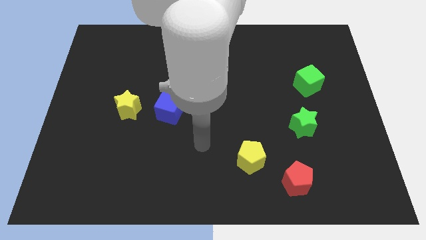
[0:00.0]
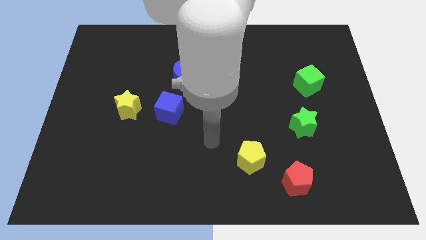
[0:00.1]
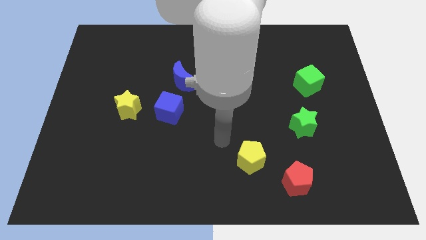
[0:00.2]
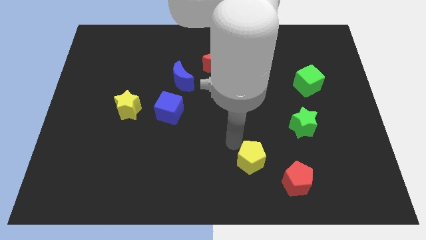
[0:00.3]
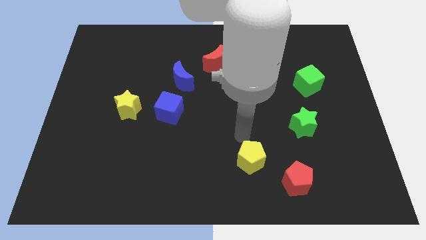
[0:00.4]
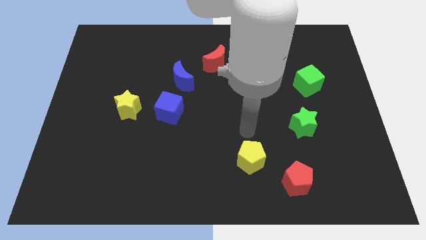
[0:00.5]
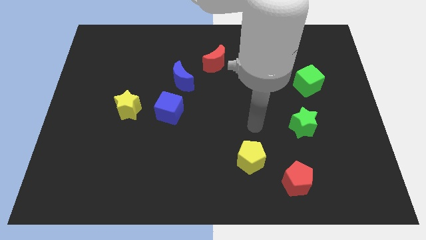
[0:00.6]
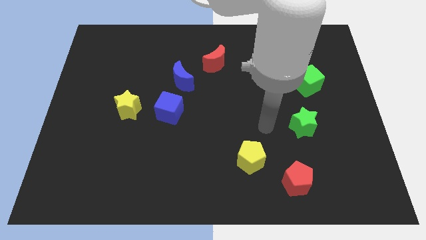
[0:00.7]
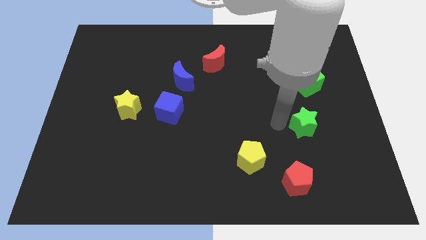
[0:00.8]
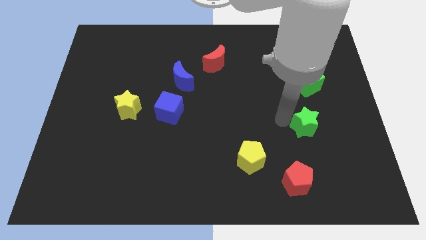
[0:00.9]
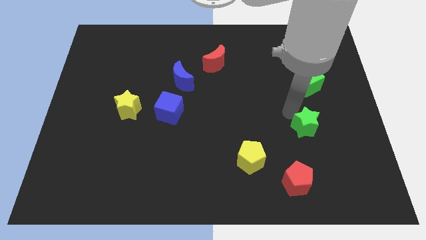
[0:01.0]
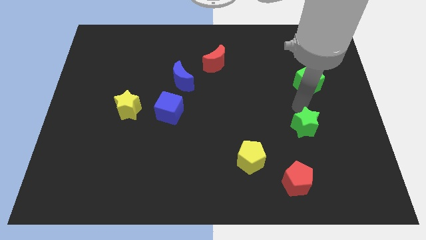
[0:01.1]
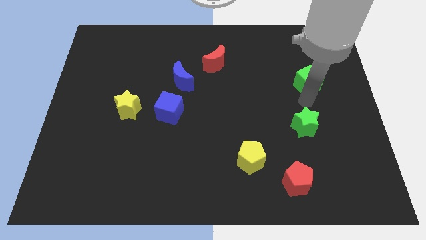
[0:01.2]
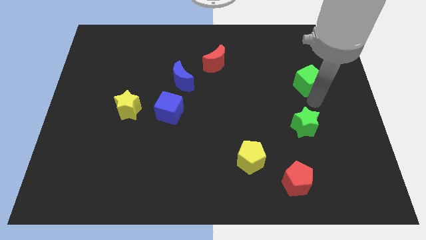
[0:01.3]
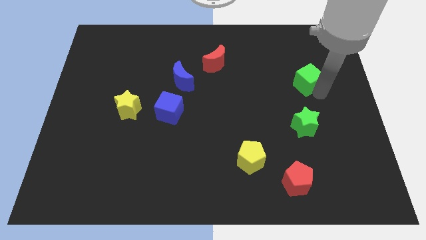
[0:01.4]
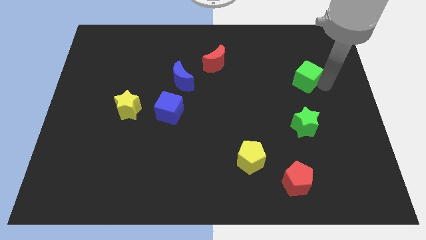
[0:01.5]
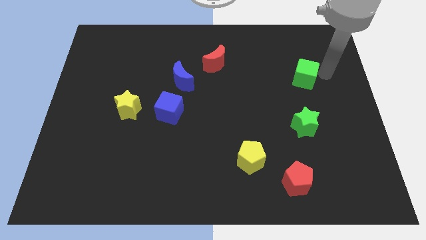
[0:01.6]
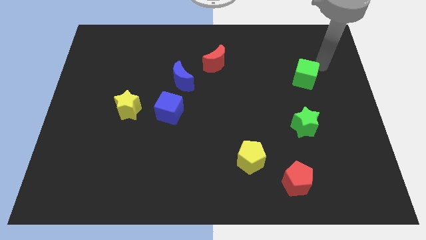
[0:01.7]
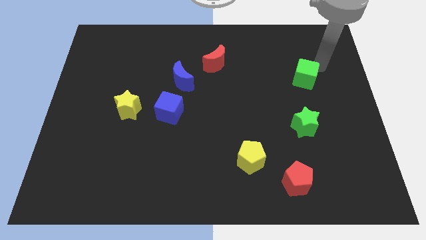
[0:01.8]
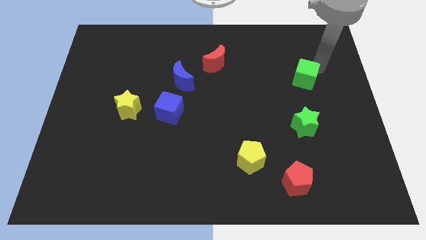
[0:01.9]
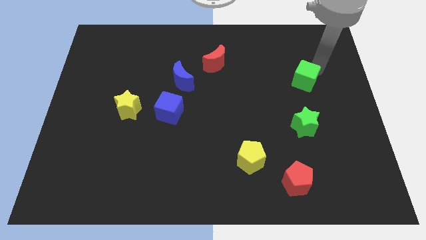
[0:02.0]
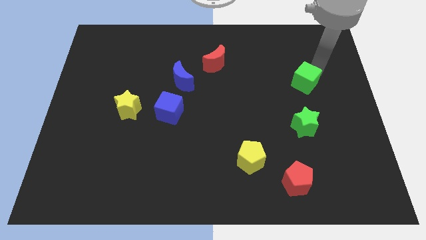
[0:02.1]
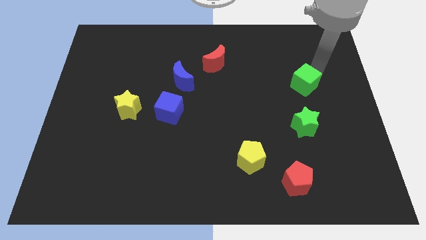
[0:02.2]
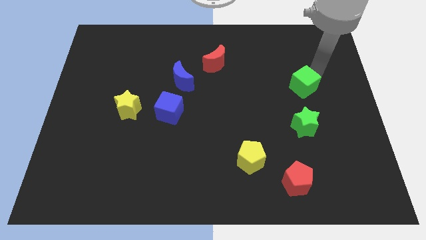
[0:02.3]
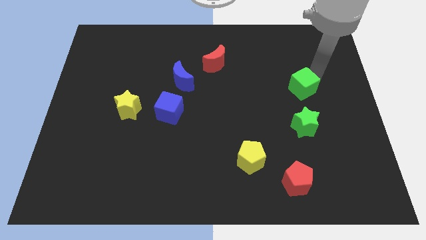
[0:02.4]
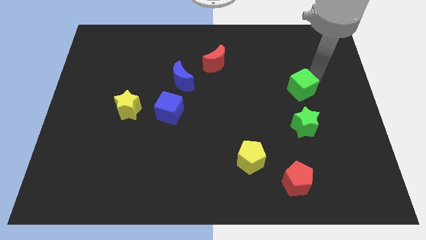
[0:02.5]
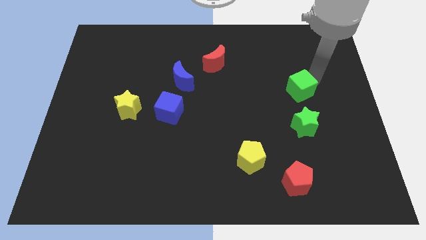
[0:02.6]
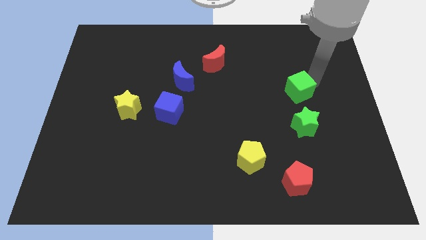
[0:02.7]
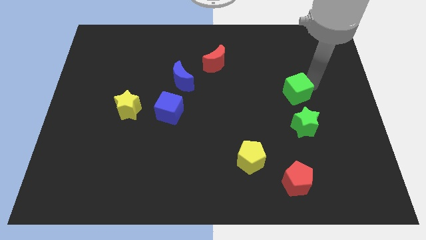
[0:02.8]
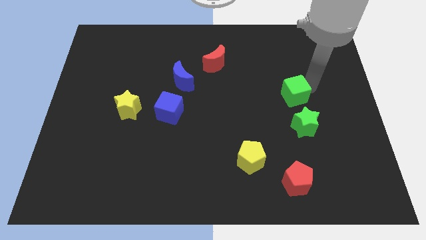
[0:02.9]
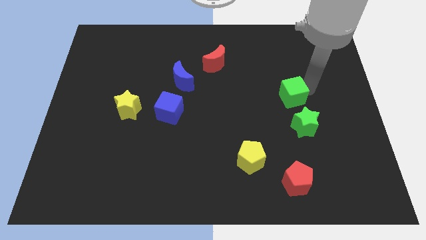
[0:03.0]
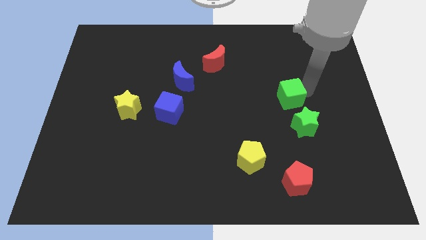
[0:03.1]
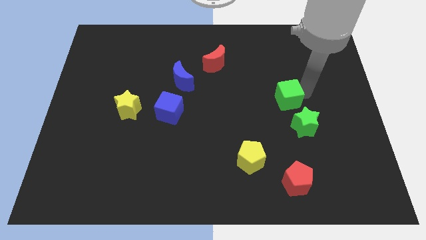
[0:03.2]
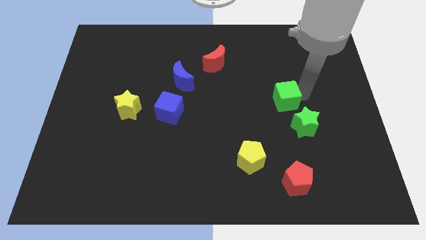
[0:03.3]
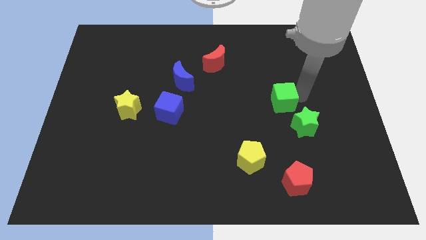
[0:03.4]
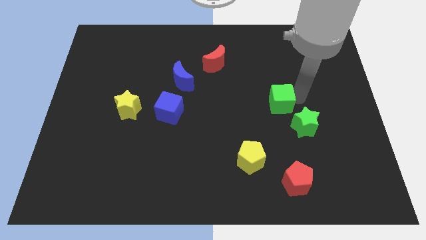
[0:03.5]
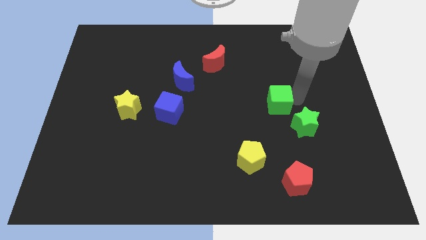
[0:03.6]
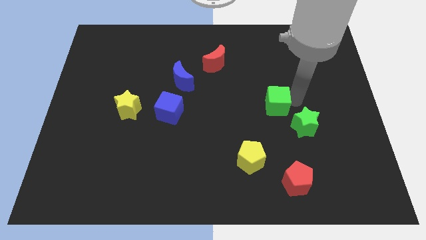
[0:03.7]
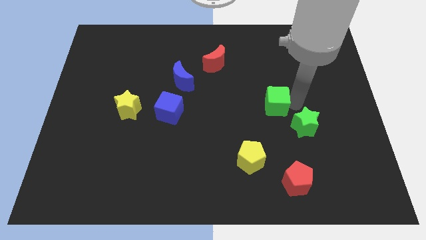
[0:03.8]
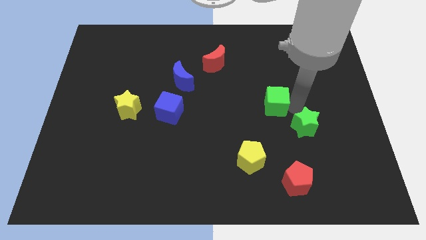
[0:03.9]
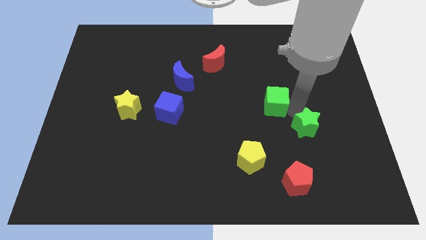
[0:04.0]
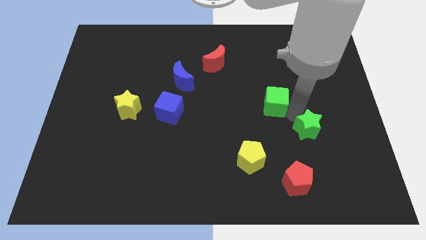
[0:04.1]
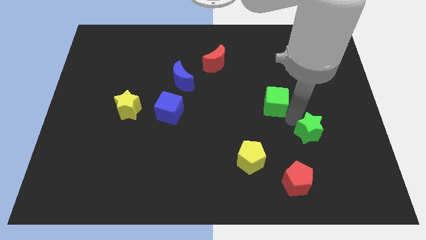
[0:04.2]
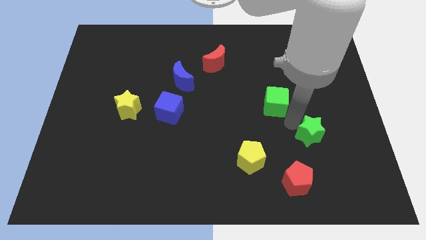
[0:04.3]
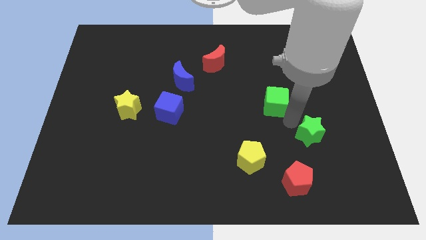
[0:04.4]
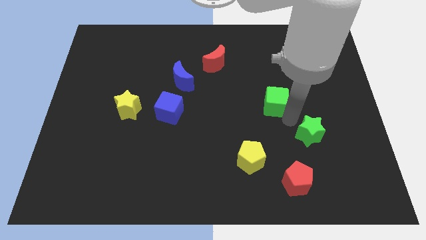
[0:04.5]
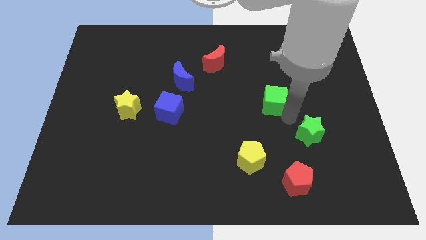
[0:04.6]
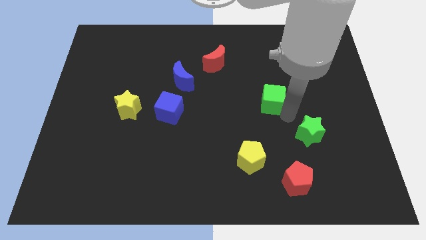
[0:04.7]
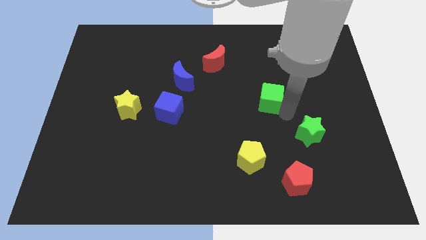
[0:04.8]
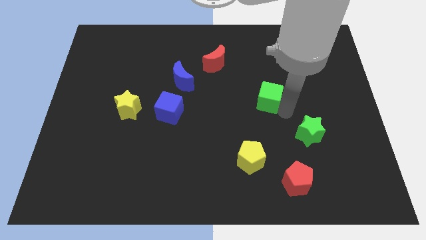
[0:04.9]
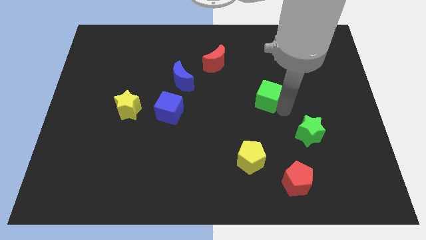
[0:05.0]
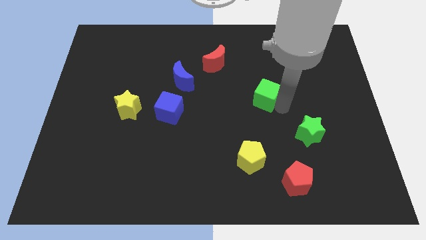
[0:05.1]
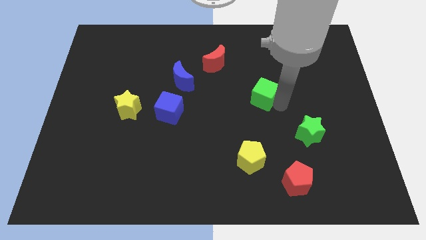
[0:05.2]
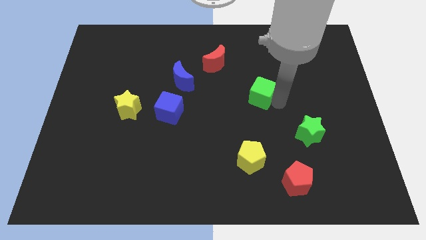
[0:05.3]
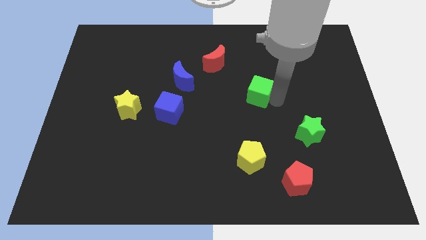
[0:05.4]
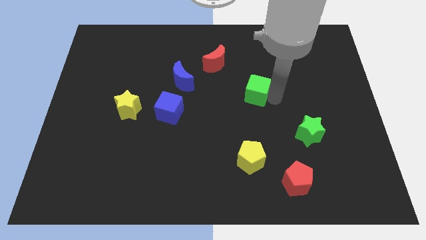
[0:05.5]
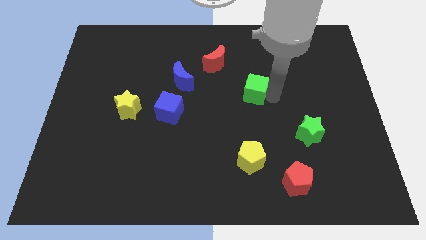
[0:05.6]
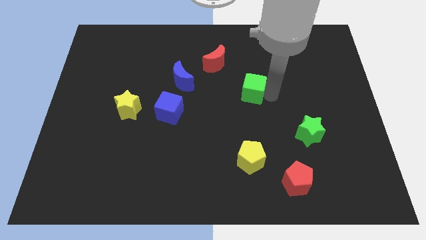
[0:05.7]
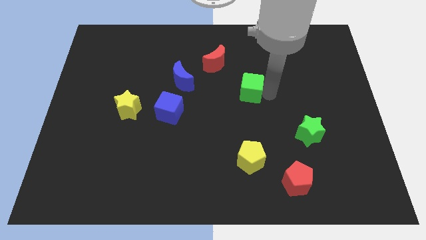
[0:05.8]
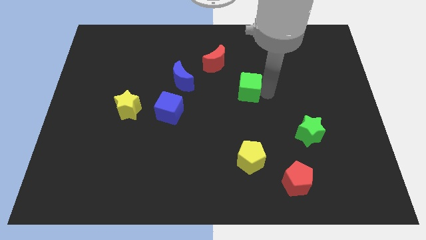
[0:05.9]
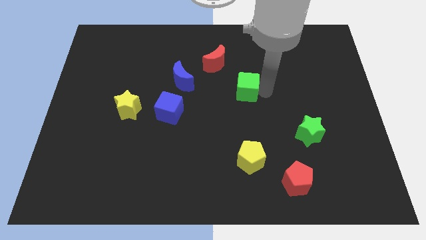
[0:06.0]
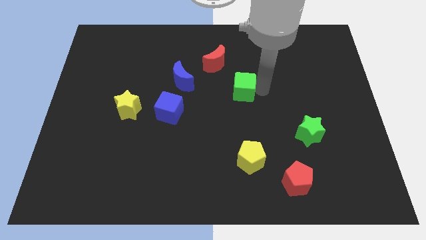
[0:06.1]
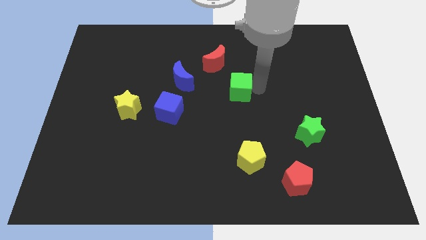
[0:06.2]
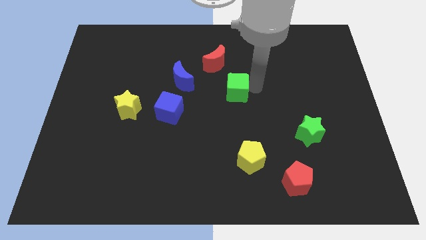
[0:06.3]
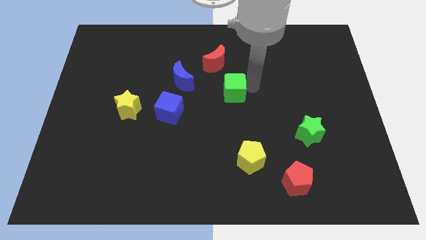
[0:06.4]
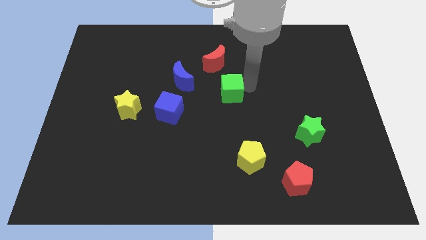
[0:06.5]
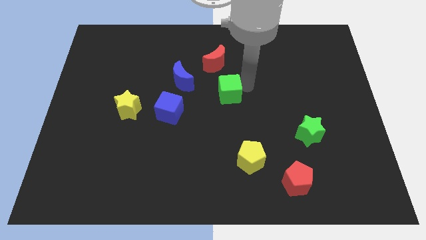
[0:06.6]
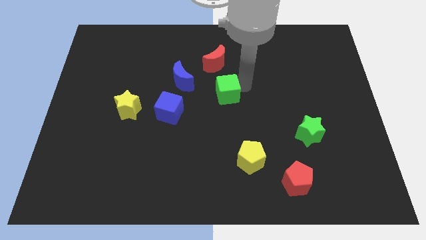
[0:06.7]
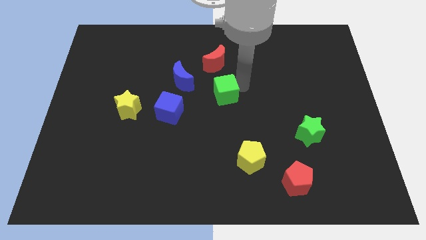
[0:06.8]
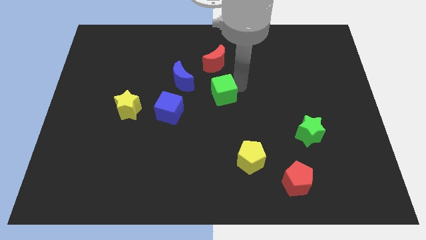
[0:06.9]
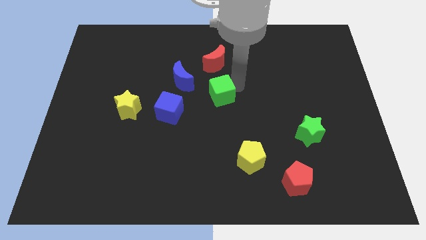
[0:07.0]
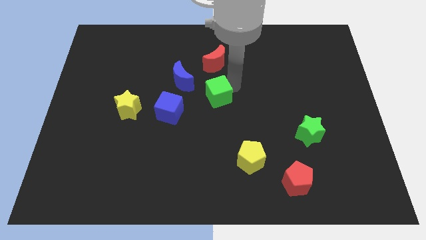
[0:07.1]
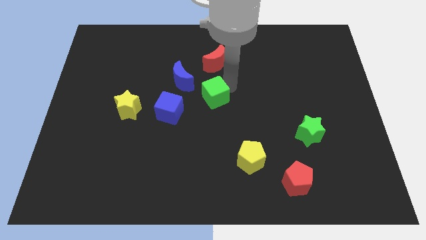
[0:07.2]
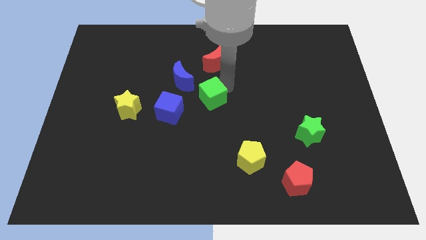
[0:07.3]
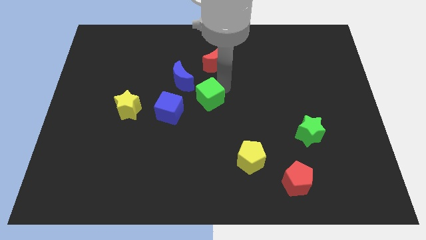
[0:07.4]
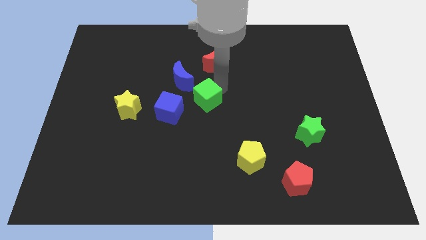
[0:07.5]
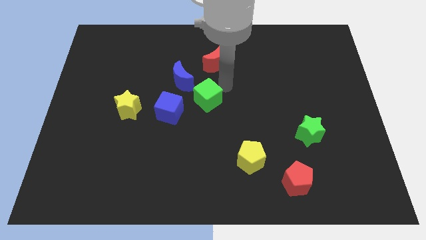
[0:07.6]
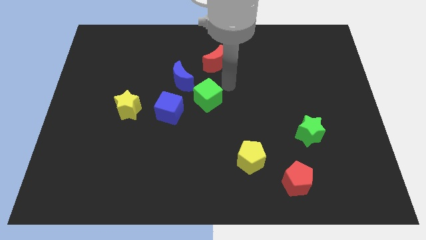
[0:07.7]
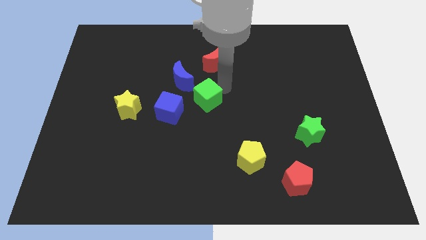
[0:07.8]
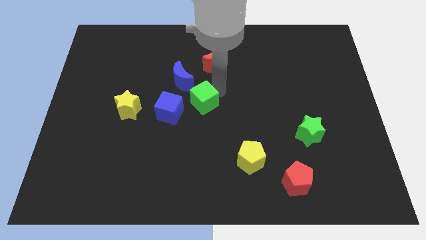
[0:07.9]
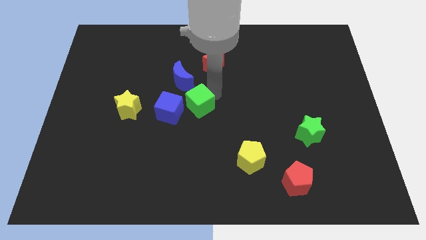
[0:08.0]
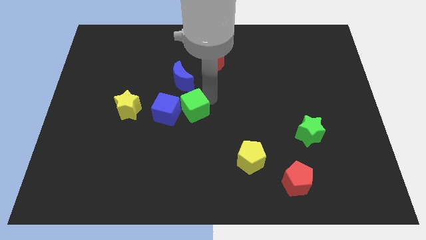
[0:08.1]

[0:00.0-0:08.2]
move the green cube to the right side of the yellow star
